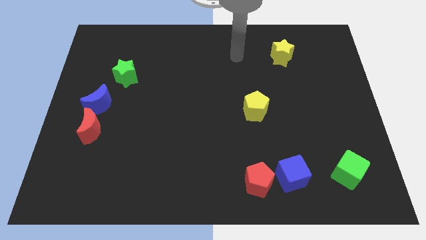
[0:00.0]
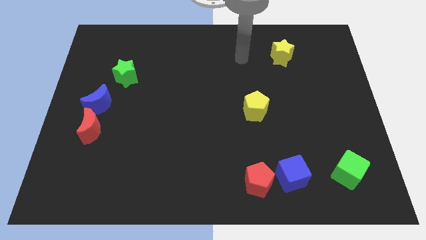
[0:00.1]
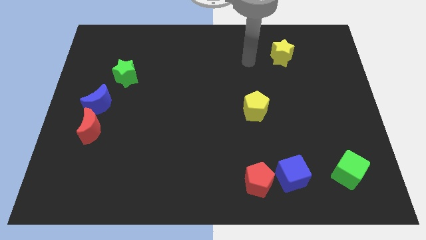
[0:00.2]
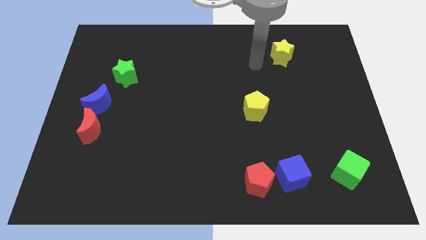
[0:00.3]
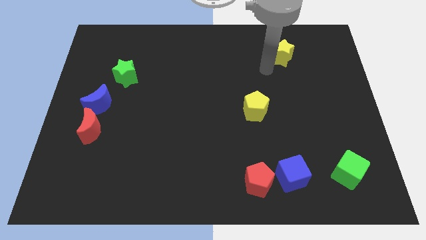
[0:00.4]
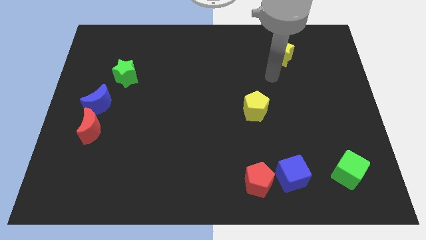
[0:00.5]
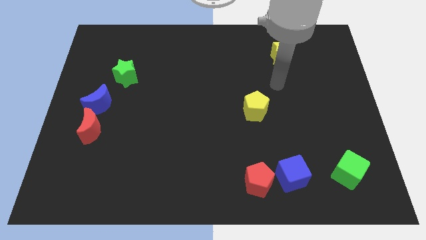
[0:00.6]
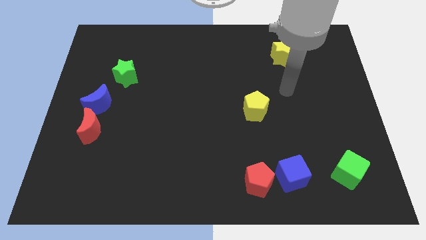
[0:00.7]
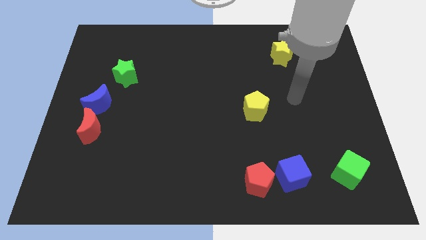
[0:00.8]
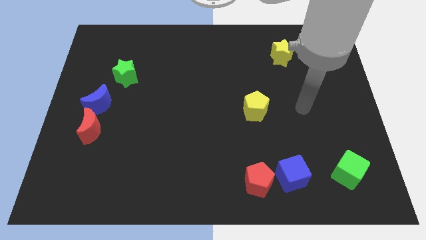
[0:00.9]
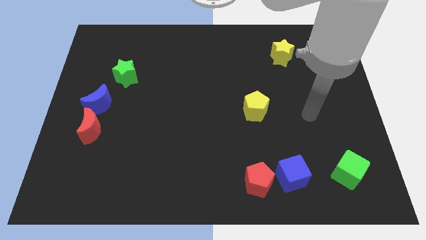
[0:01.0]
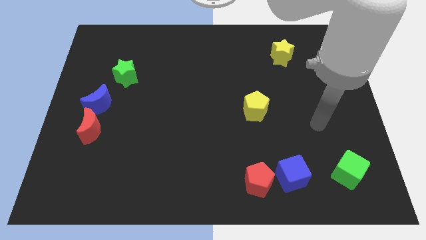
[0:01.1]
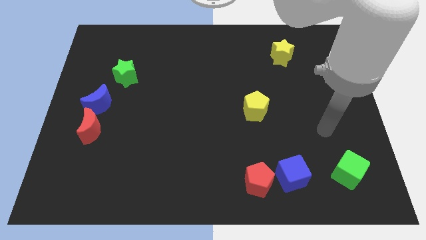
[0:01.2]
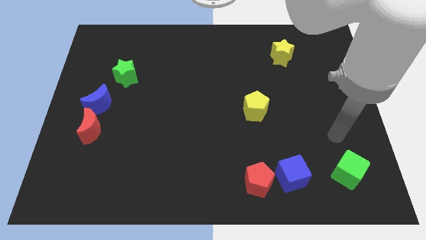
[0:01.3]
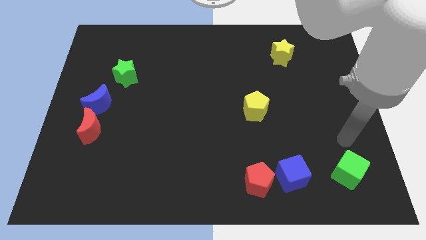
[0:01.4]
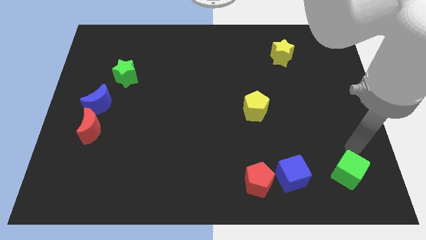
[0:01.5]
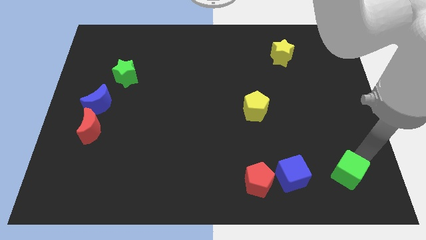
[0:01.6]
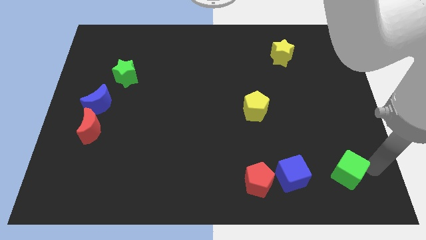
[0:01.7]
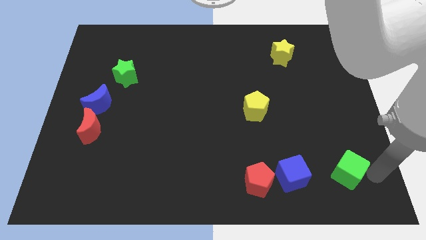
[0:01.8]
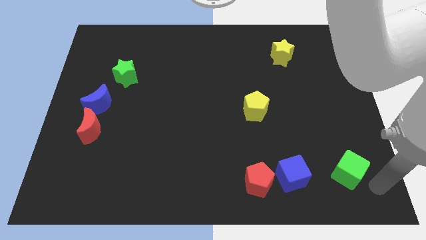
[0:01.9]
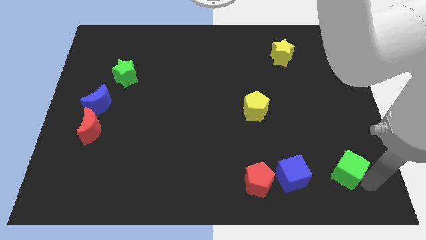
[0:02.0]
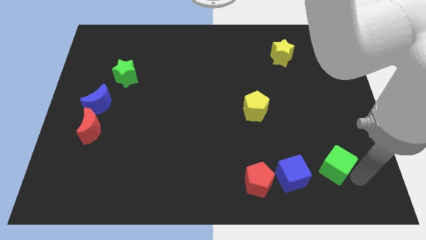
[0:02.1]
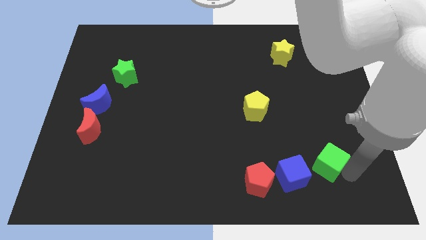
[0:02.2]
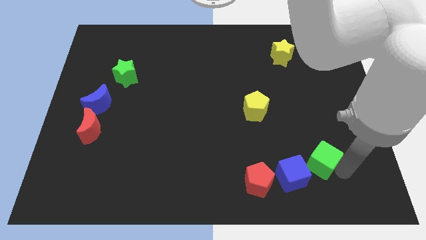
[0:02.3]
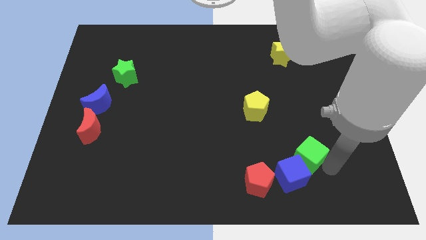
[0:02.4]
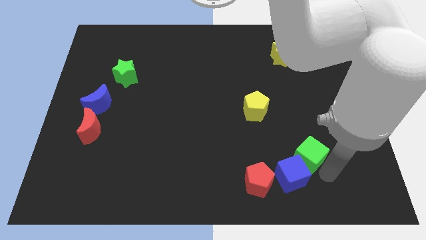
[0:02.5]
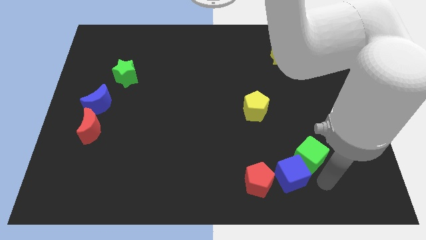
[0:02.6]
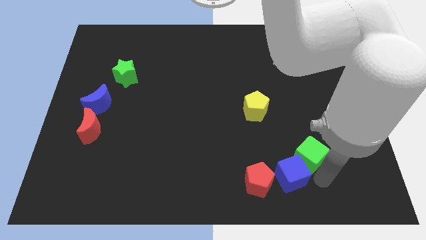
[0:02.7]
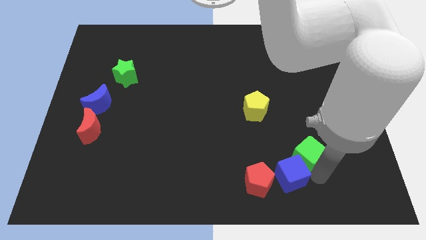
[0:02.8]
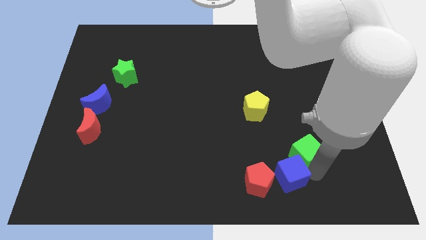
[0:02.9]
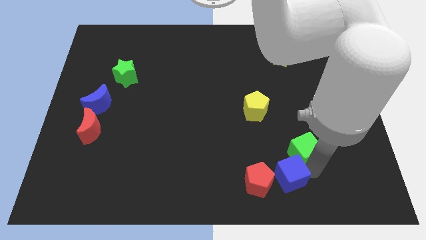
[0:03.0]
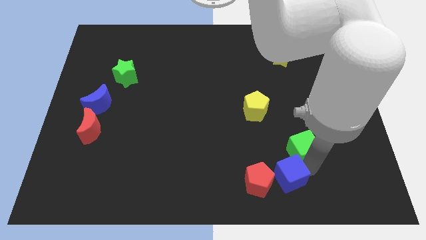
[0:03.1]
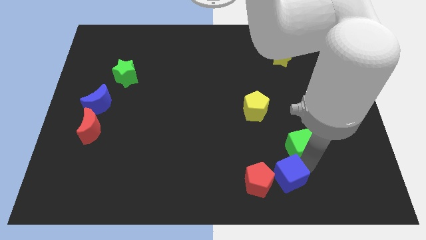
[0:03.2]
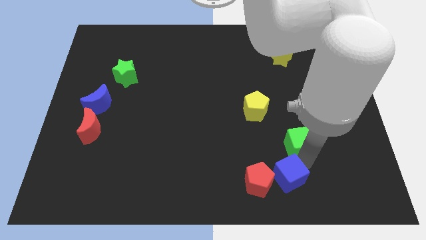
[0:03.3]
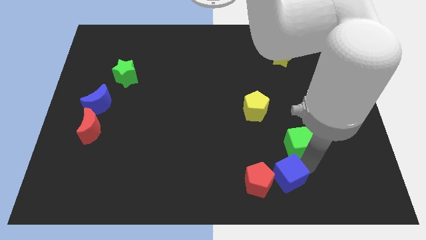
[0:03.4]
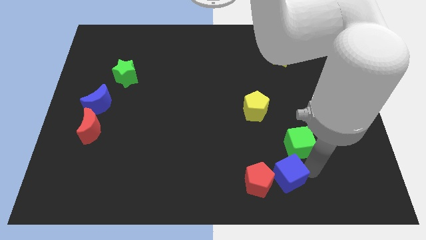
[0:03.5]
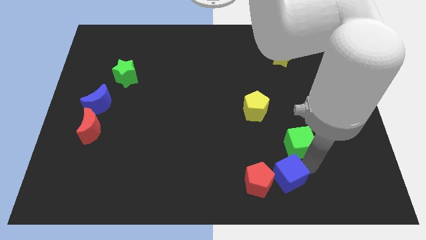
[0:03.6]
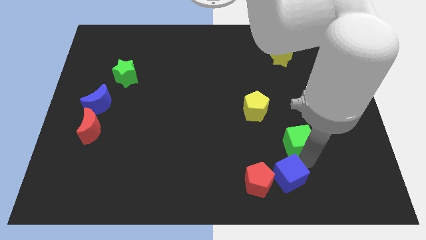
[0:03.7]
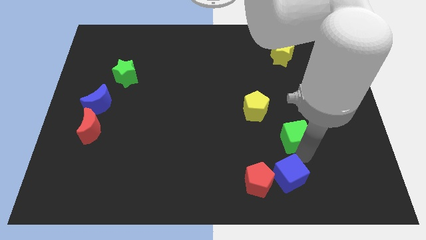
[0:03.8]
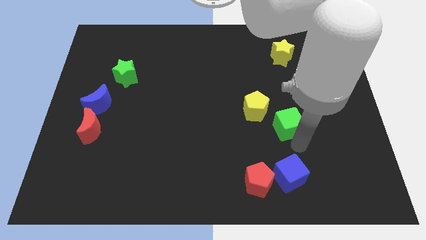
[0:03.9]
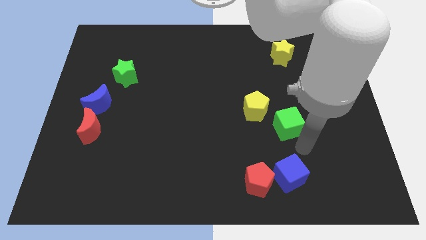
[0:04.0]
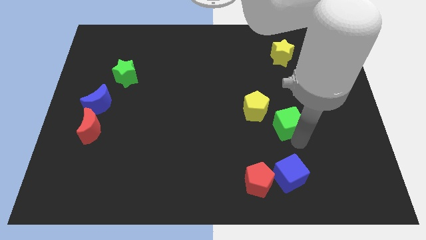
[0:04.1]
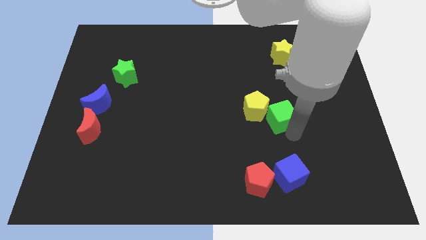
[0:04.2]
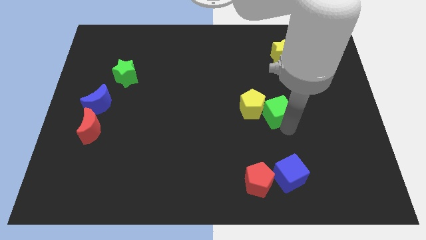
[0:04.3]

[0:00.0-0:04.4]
move the green cube upwards and to the left

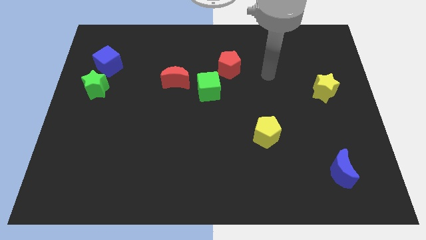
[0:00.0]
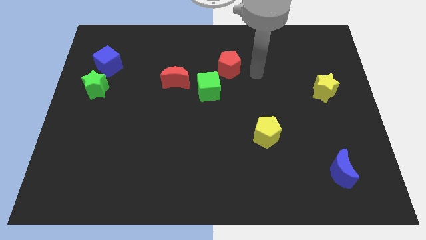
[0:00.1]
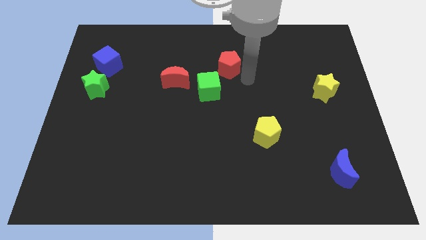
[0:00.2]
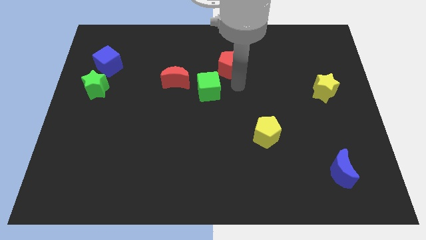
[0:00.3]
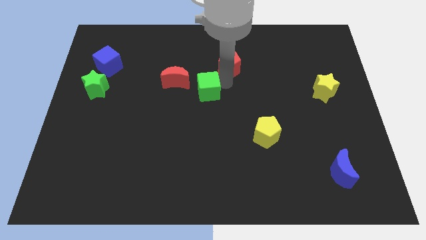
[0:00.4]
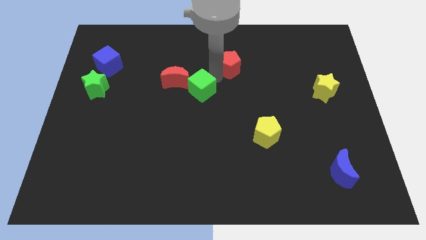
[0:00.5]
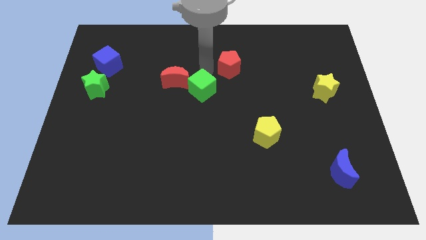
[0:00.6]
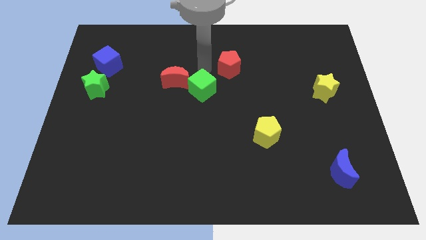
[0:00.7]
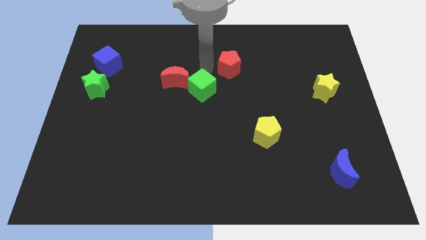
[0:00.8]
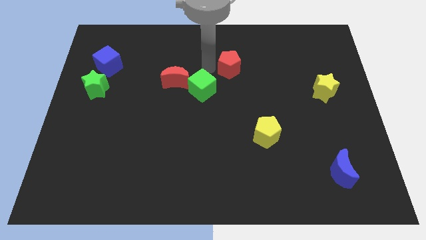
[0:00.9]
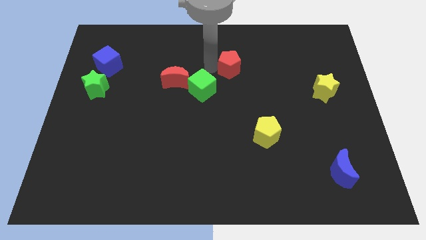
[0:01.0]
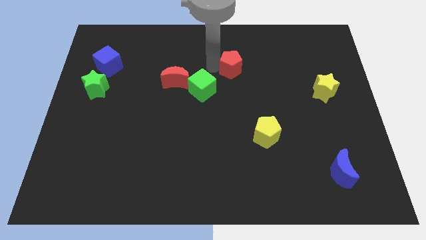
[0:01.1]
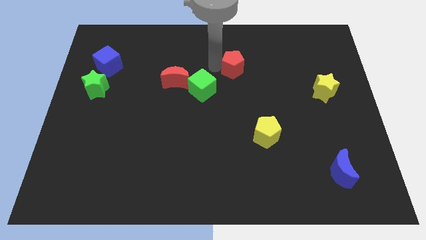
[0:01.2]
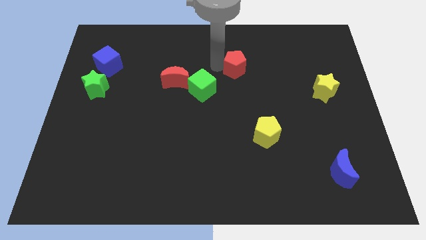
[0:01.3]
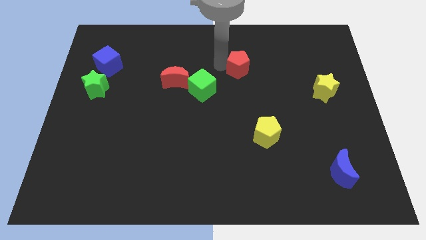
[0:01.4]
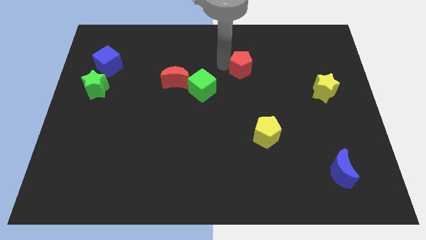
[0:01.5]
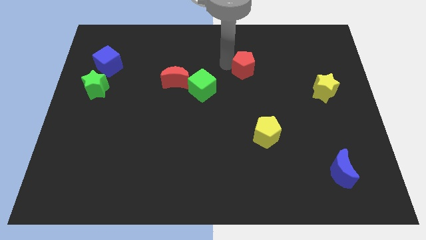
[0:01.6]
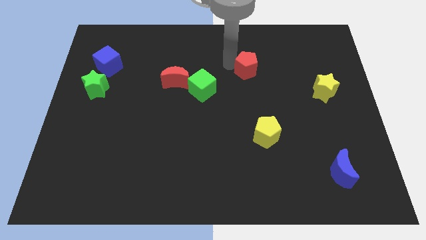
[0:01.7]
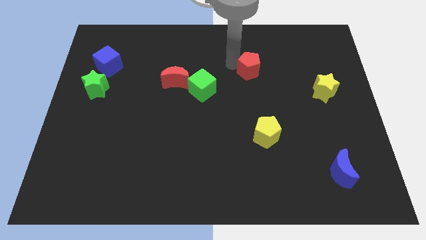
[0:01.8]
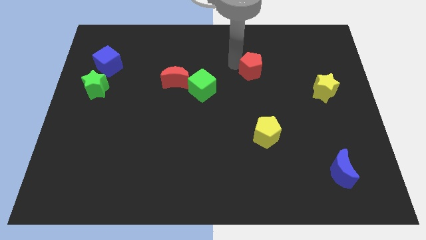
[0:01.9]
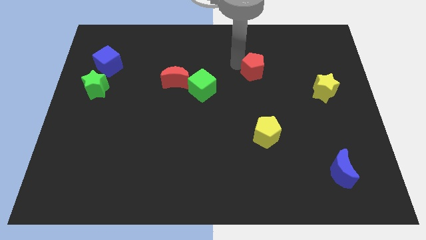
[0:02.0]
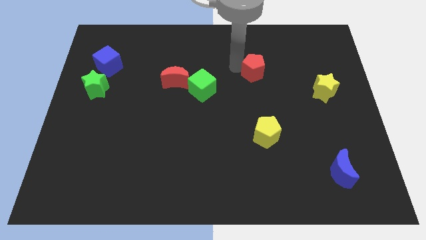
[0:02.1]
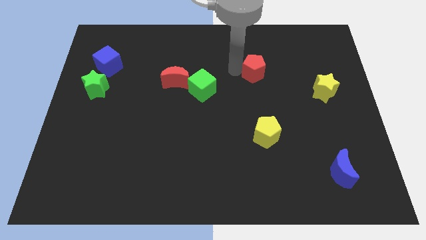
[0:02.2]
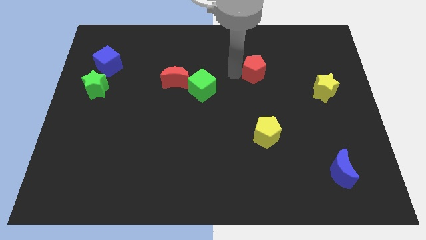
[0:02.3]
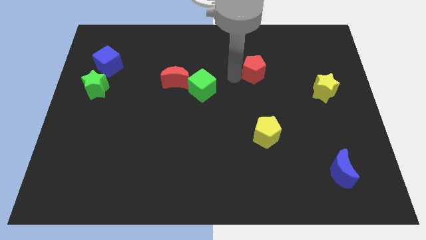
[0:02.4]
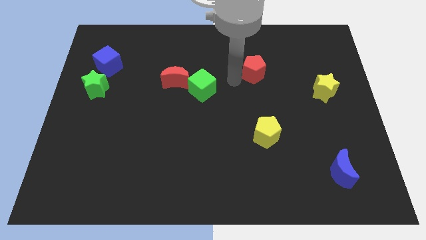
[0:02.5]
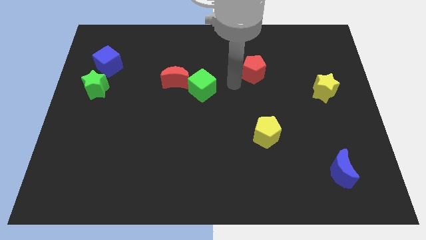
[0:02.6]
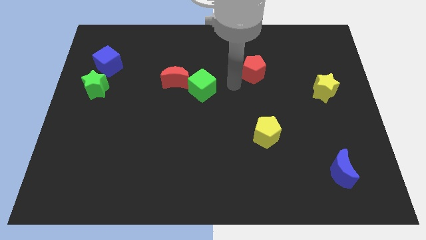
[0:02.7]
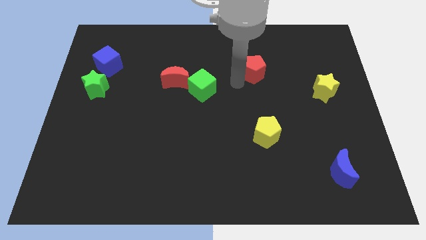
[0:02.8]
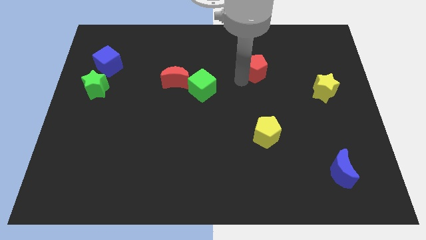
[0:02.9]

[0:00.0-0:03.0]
push the red pentagon right somewhat

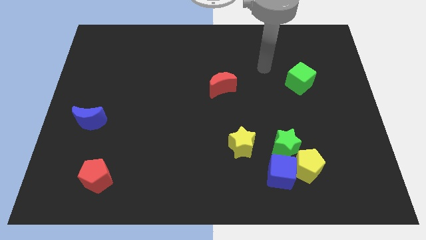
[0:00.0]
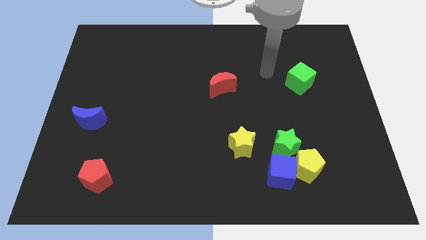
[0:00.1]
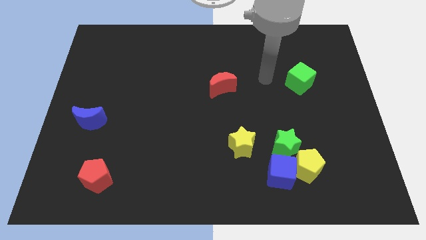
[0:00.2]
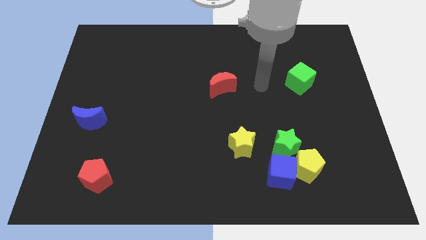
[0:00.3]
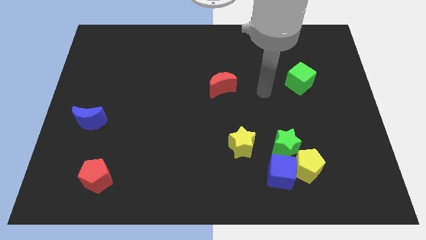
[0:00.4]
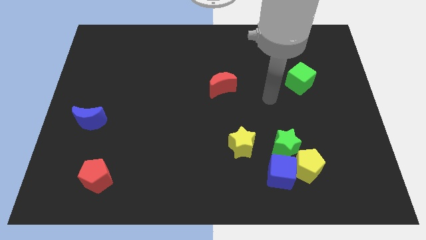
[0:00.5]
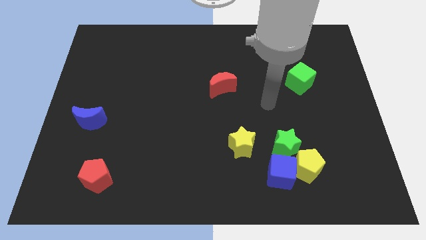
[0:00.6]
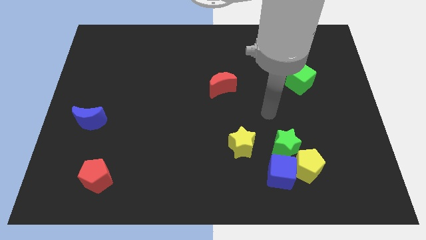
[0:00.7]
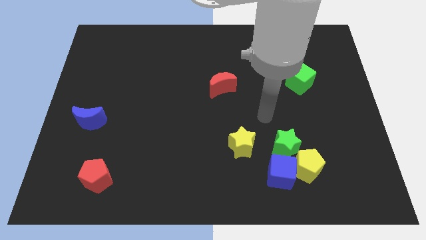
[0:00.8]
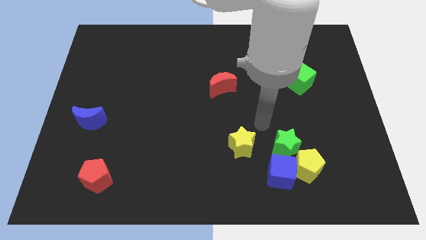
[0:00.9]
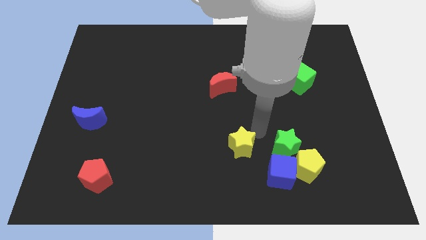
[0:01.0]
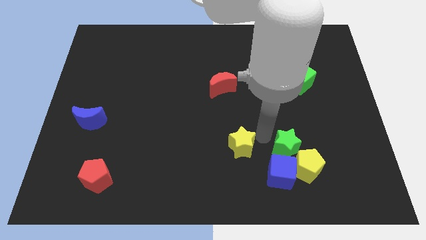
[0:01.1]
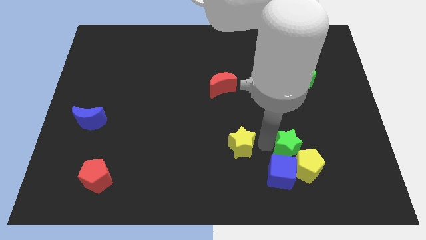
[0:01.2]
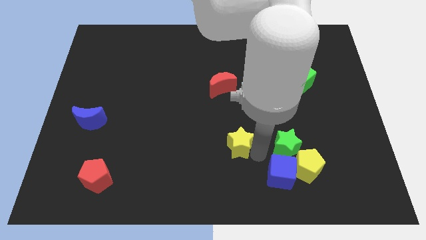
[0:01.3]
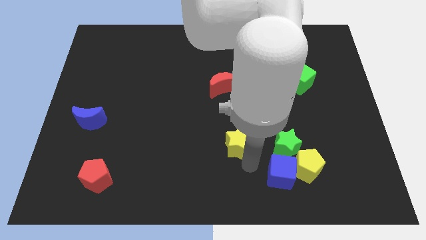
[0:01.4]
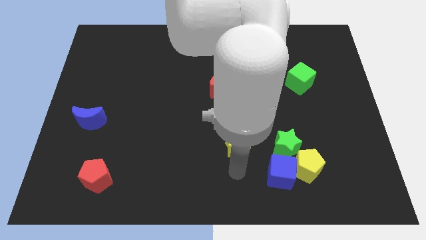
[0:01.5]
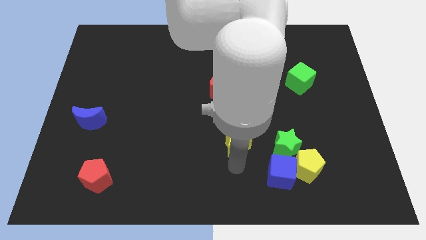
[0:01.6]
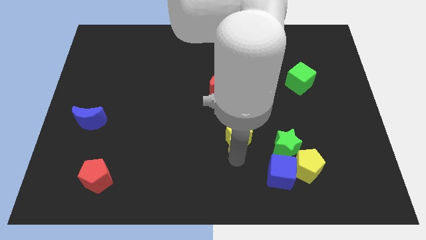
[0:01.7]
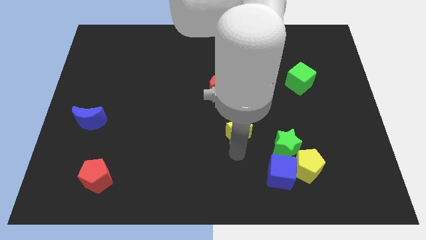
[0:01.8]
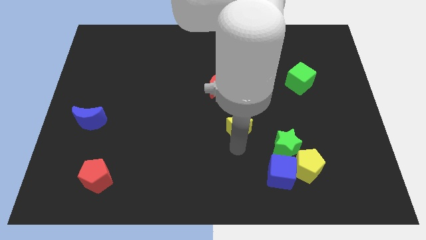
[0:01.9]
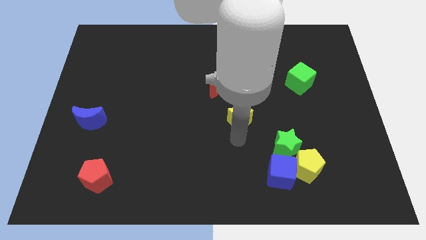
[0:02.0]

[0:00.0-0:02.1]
slightly push the yellow star up
